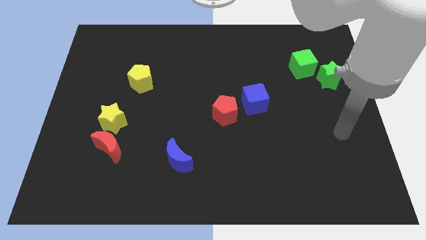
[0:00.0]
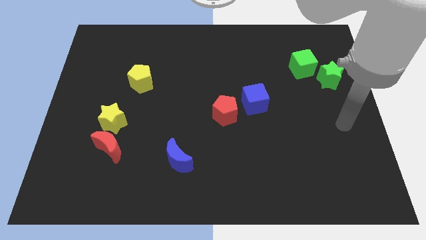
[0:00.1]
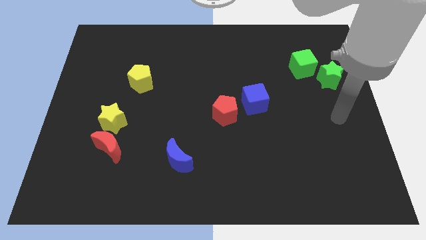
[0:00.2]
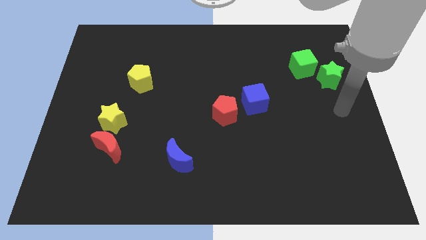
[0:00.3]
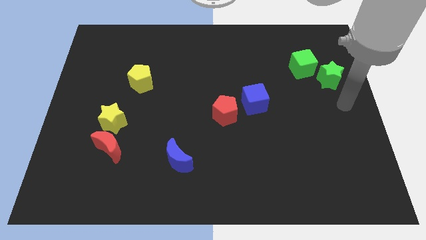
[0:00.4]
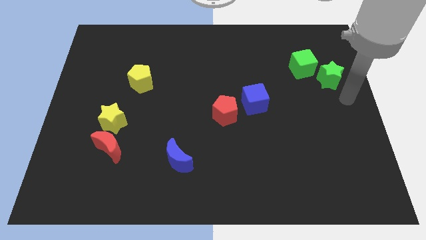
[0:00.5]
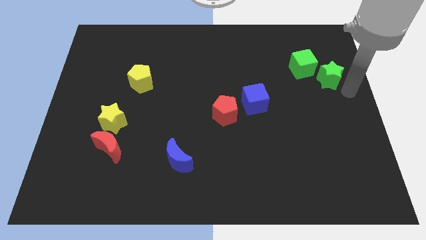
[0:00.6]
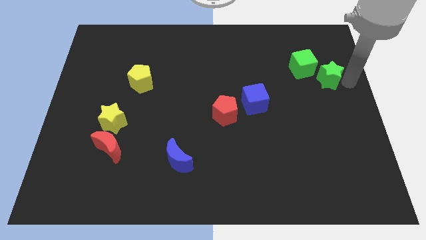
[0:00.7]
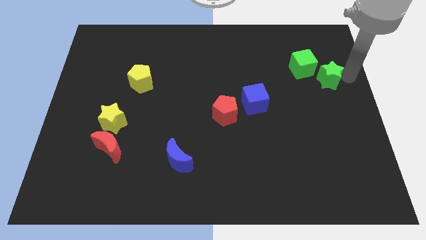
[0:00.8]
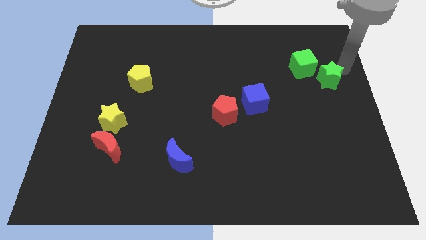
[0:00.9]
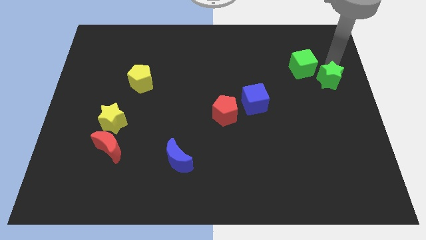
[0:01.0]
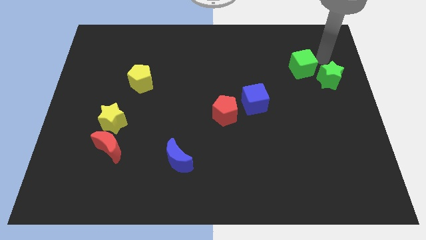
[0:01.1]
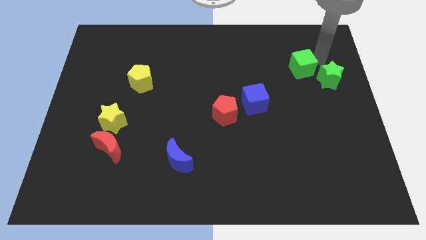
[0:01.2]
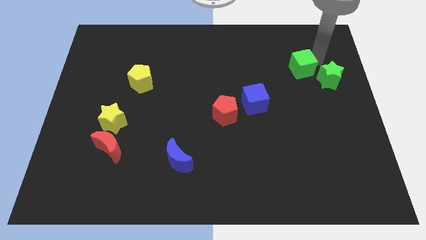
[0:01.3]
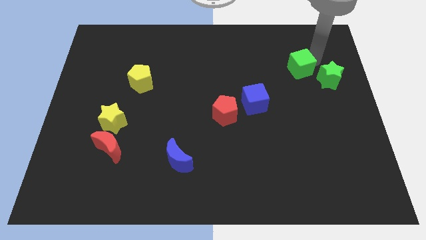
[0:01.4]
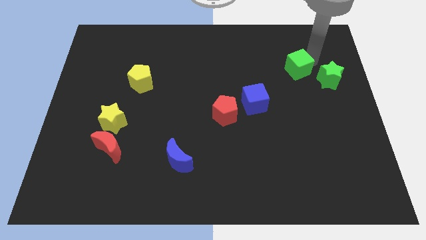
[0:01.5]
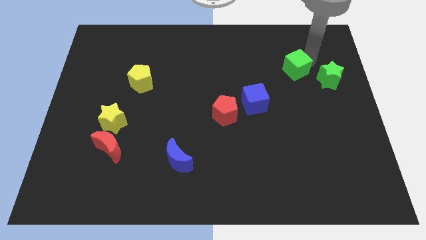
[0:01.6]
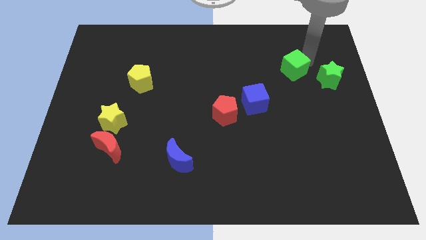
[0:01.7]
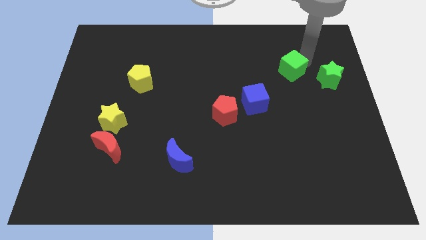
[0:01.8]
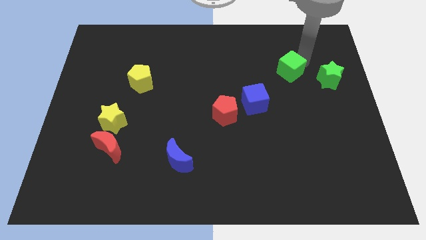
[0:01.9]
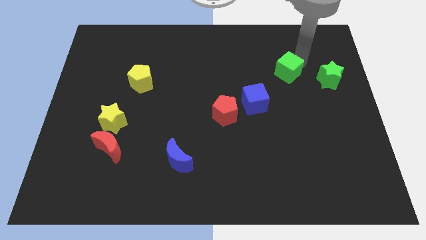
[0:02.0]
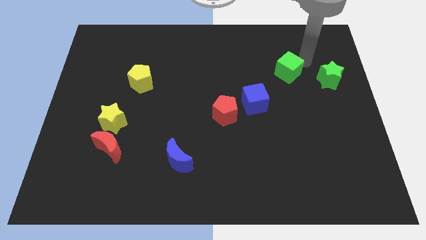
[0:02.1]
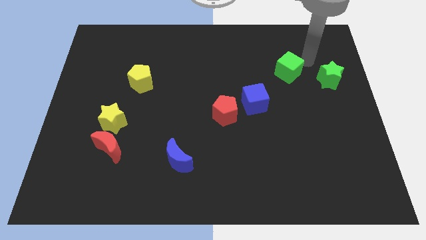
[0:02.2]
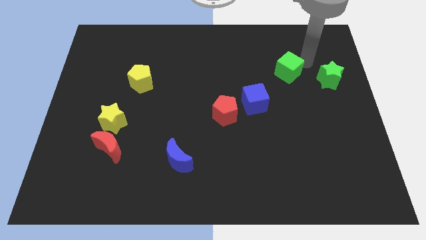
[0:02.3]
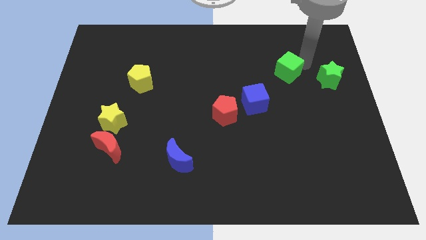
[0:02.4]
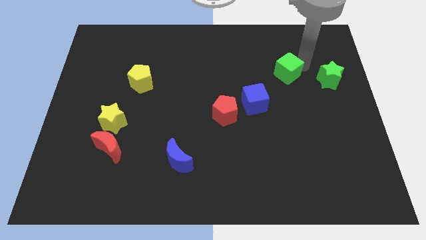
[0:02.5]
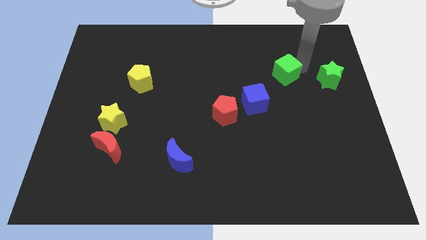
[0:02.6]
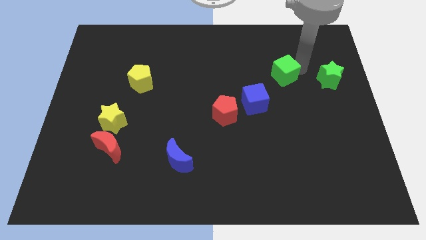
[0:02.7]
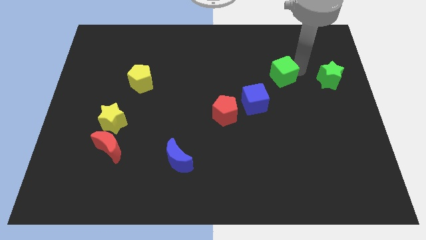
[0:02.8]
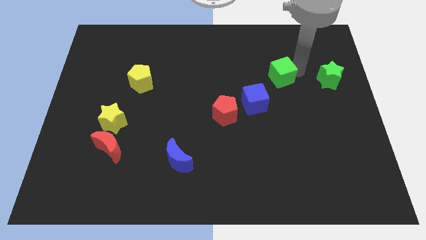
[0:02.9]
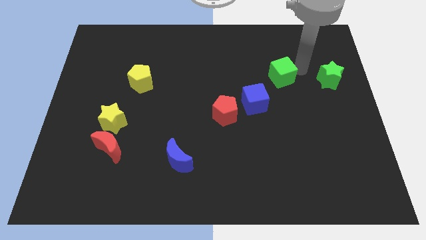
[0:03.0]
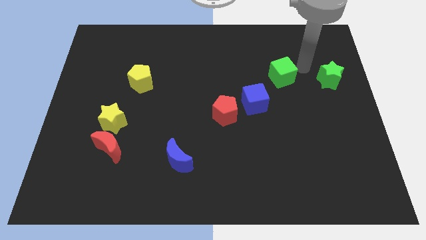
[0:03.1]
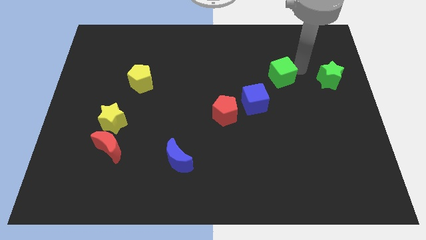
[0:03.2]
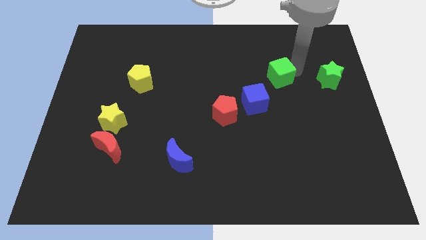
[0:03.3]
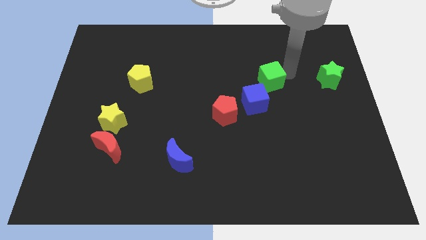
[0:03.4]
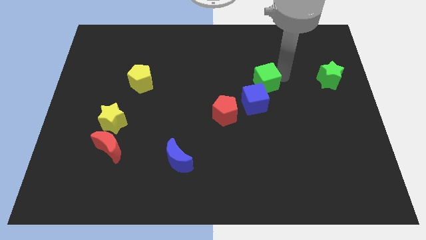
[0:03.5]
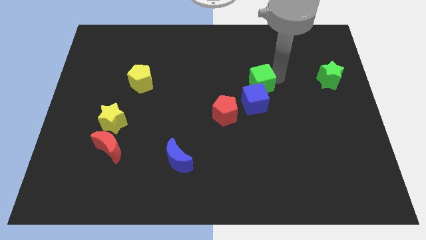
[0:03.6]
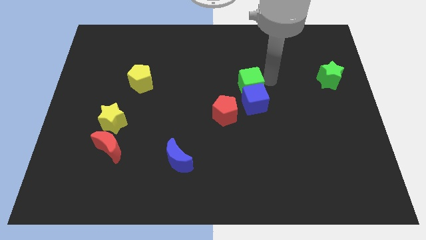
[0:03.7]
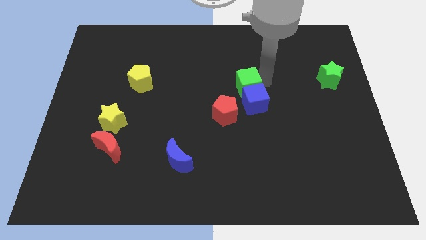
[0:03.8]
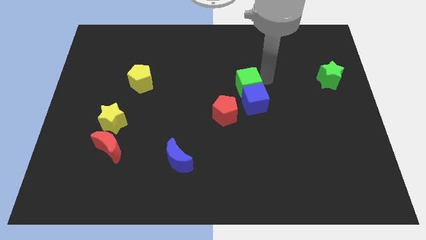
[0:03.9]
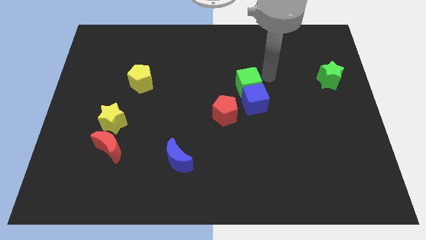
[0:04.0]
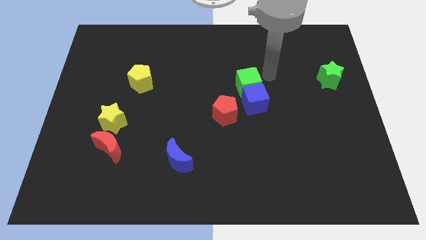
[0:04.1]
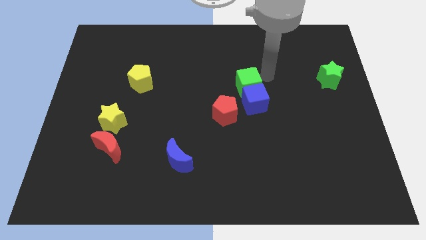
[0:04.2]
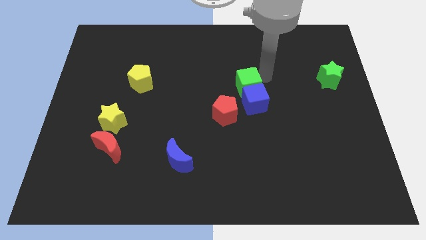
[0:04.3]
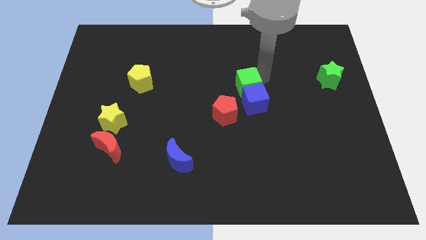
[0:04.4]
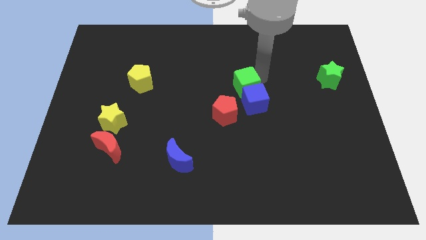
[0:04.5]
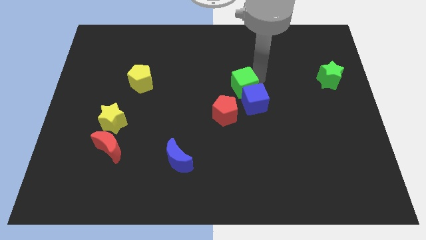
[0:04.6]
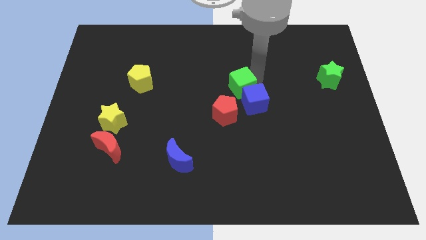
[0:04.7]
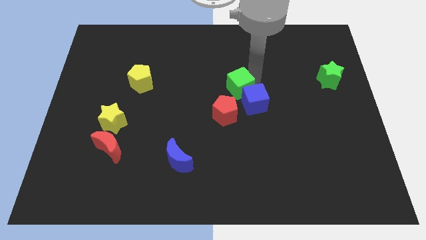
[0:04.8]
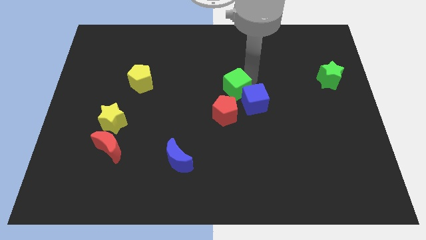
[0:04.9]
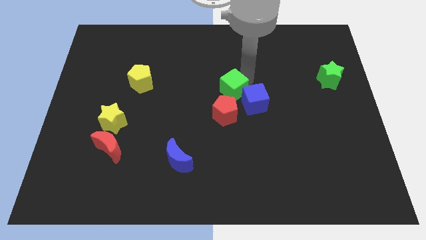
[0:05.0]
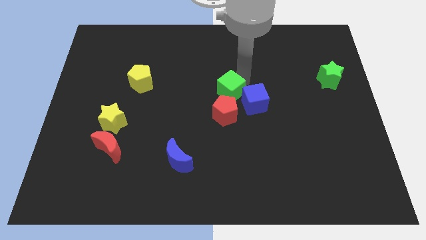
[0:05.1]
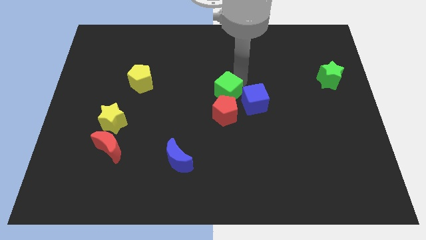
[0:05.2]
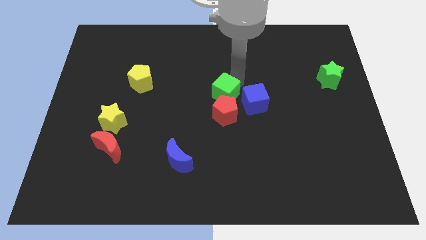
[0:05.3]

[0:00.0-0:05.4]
slide the green cube towards the red pentagon

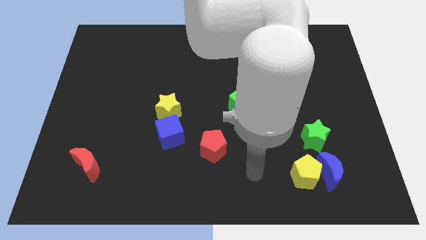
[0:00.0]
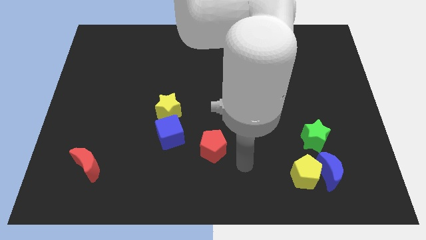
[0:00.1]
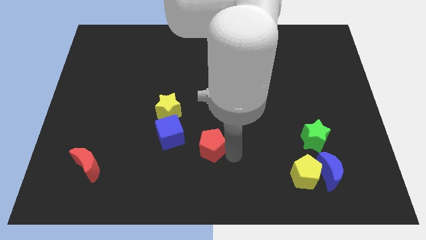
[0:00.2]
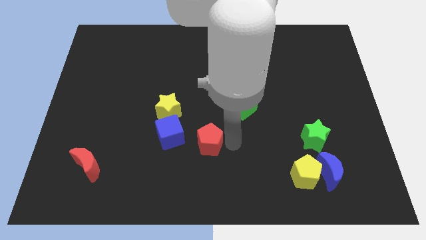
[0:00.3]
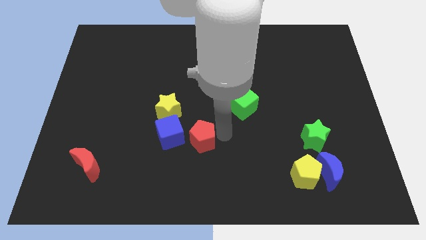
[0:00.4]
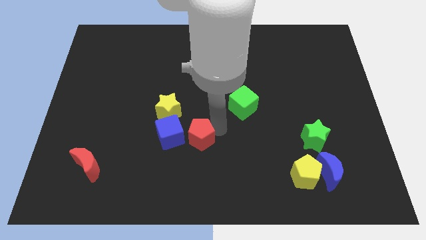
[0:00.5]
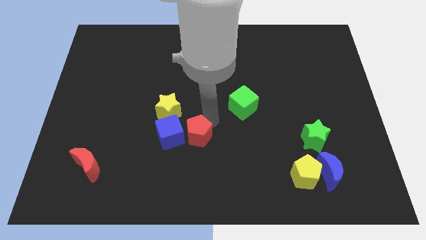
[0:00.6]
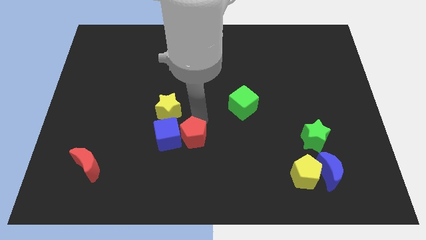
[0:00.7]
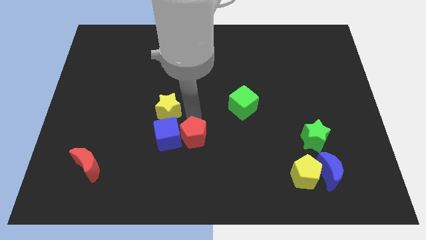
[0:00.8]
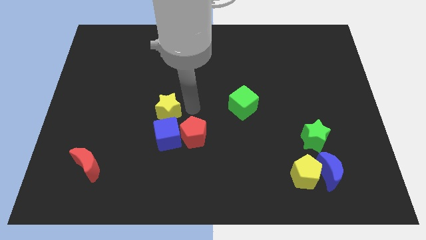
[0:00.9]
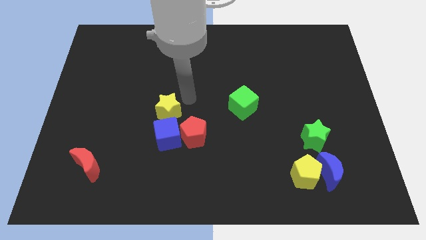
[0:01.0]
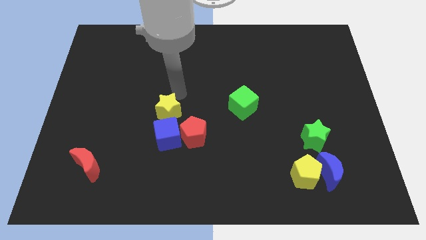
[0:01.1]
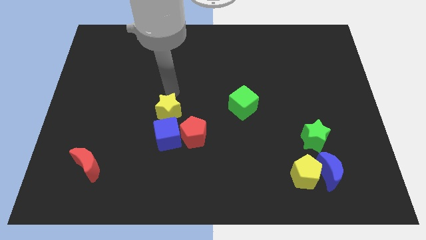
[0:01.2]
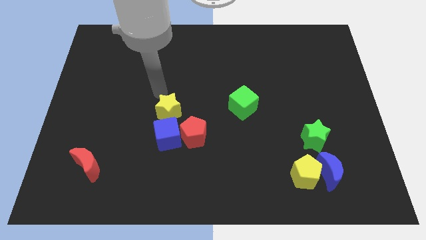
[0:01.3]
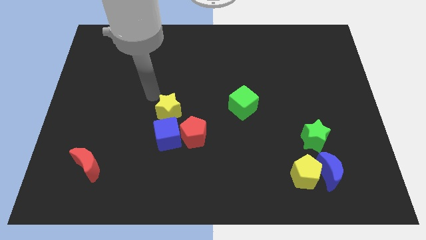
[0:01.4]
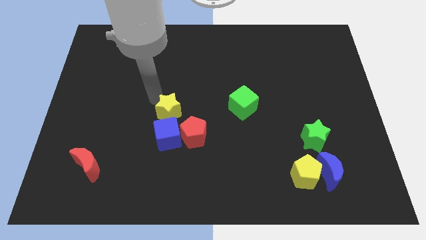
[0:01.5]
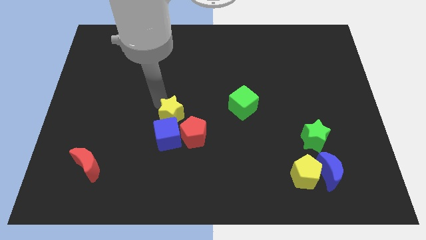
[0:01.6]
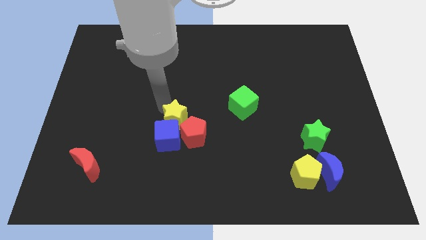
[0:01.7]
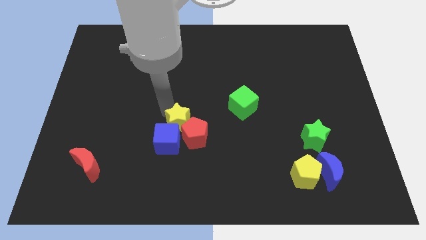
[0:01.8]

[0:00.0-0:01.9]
push the yellow star to the red pentagon
